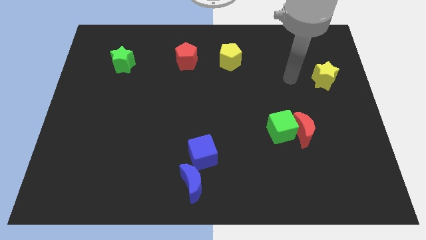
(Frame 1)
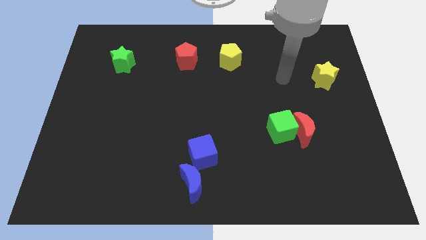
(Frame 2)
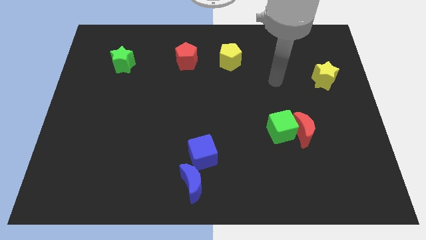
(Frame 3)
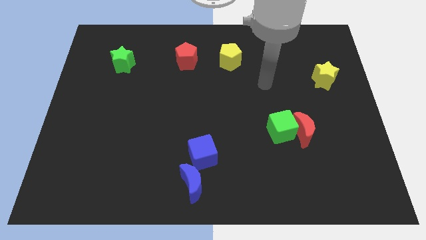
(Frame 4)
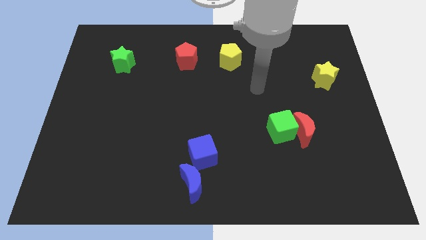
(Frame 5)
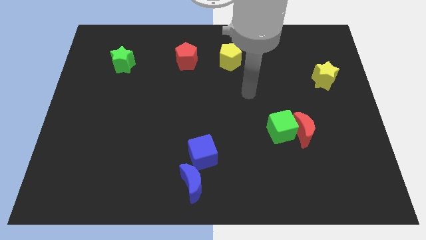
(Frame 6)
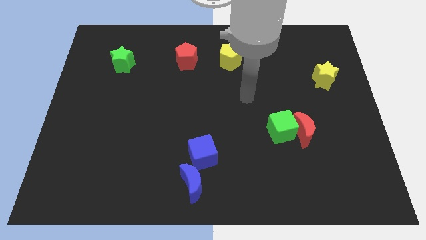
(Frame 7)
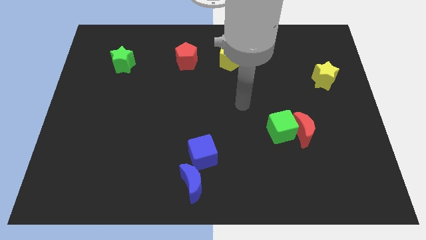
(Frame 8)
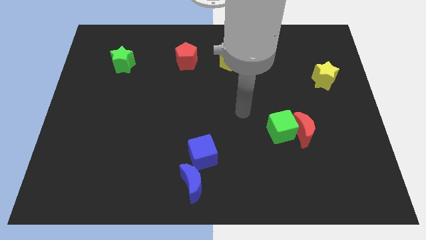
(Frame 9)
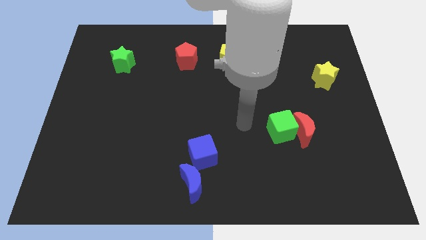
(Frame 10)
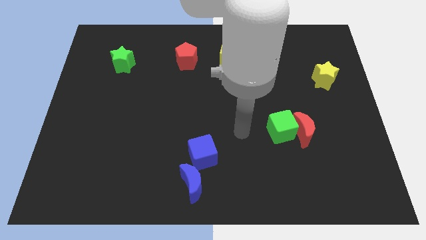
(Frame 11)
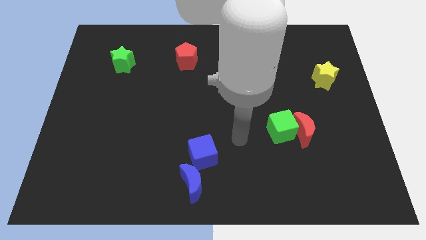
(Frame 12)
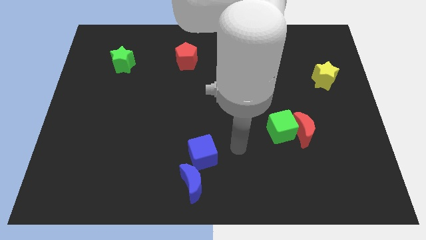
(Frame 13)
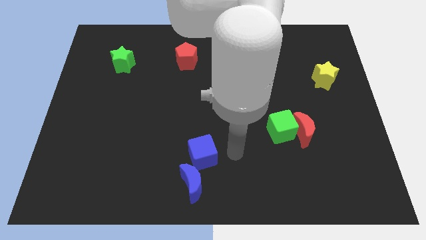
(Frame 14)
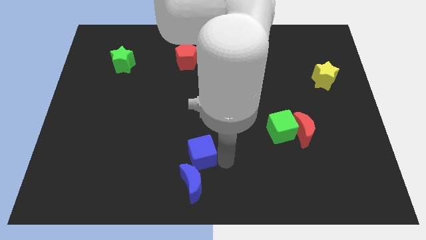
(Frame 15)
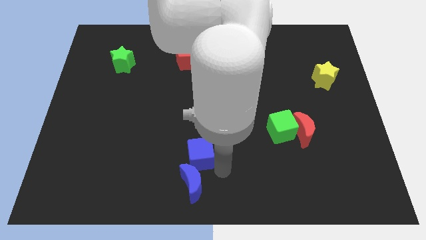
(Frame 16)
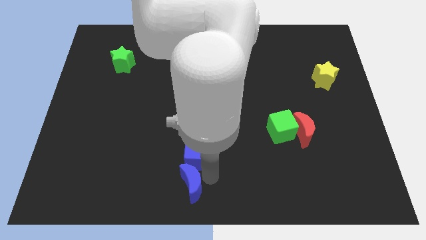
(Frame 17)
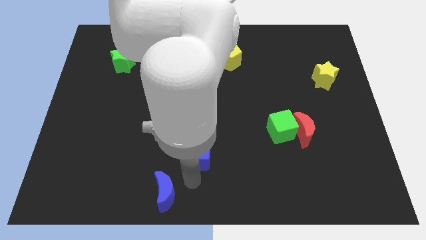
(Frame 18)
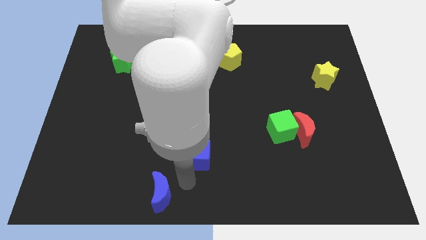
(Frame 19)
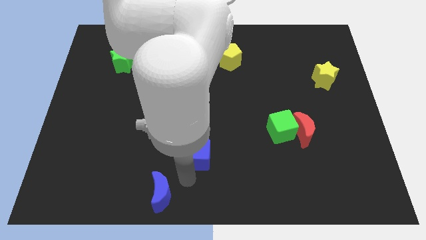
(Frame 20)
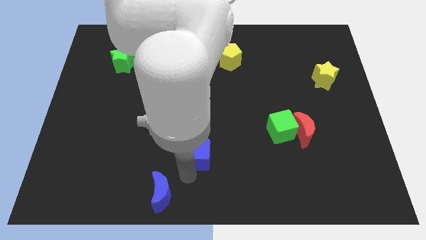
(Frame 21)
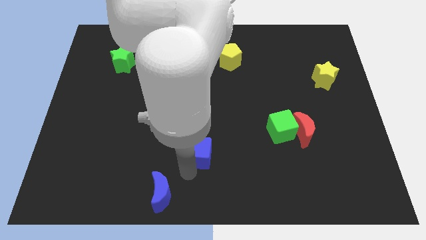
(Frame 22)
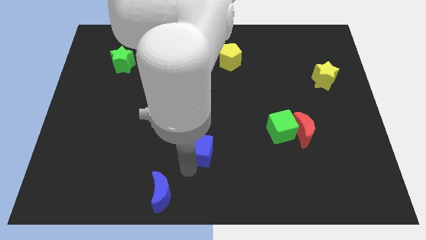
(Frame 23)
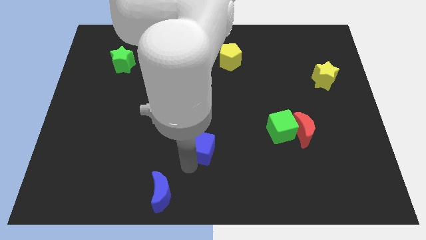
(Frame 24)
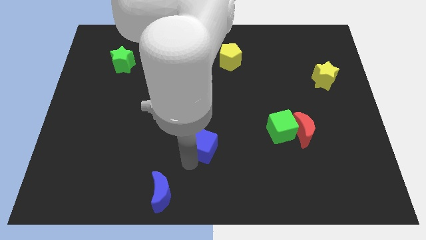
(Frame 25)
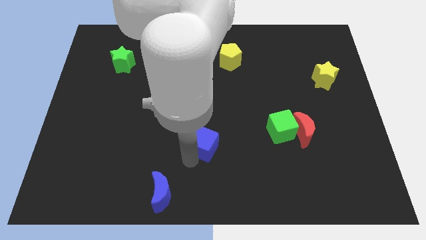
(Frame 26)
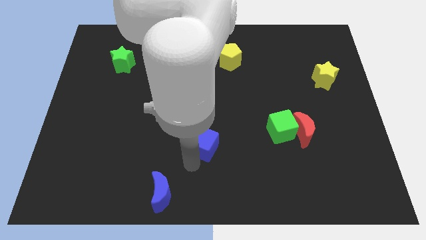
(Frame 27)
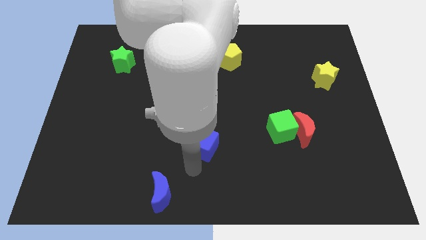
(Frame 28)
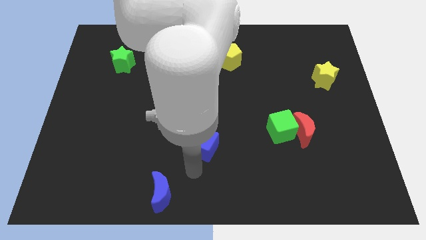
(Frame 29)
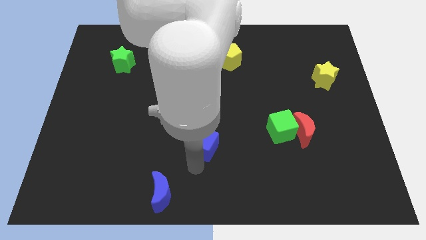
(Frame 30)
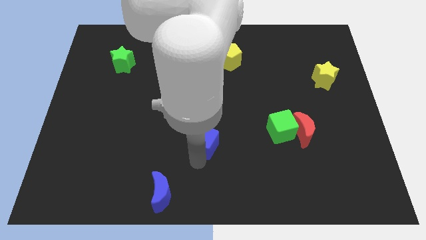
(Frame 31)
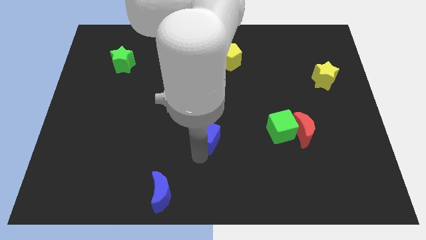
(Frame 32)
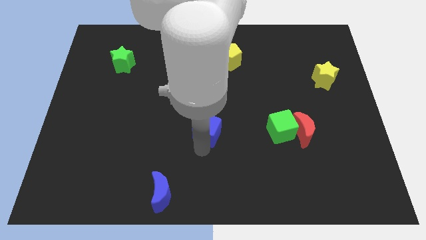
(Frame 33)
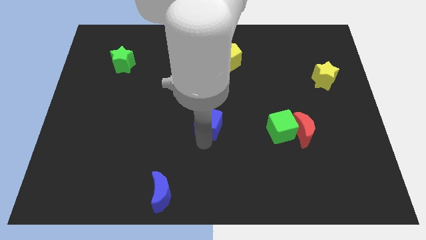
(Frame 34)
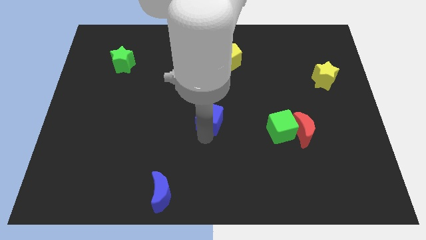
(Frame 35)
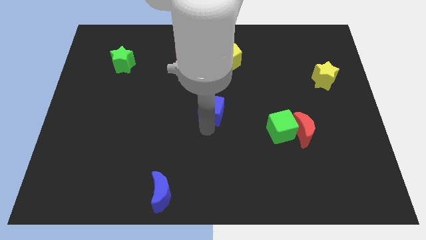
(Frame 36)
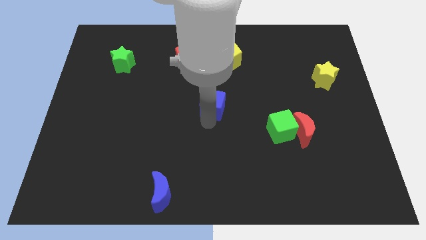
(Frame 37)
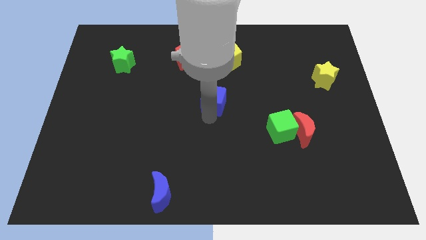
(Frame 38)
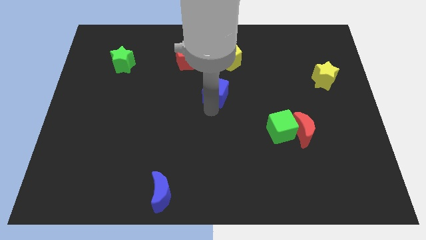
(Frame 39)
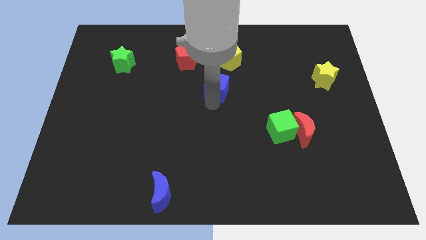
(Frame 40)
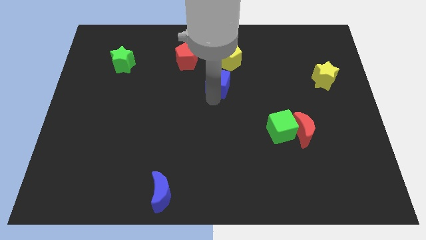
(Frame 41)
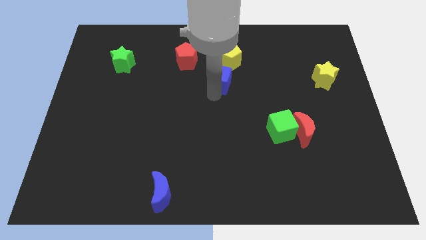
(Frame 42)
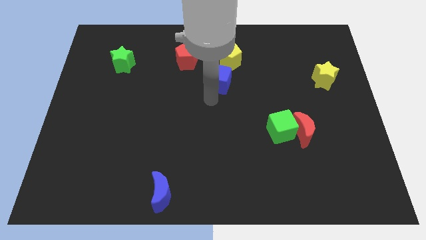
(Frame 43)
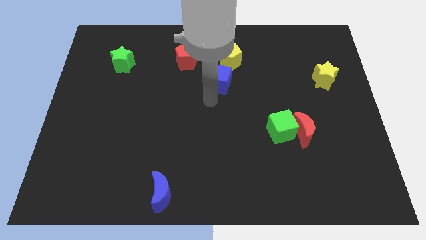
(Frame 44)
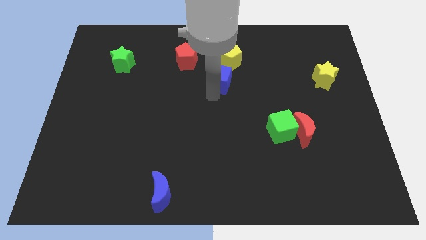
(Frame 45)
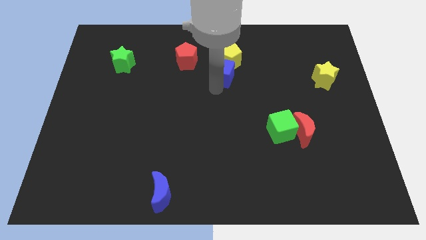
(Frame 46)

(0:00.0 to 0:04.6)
put the blue cube next to the yellow pentagon

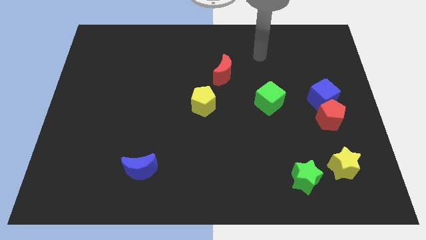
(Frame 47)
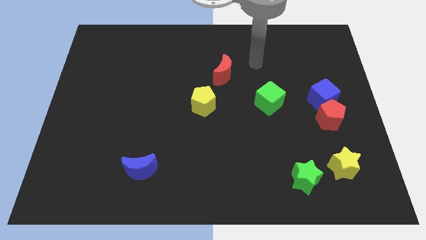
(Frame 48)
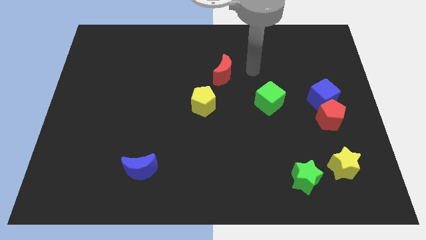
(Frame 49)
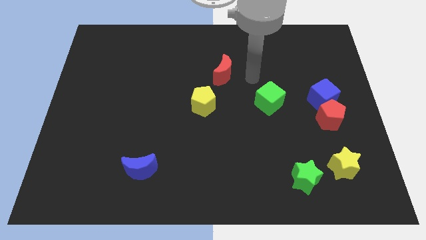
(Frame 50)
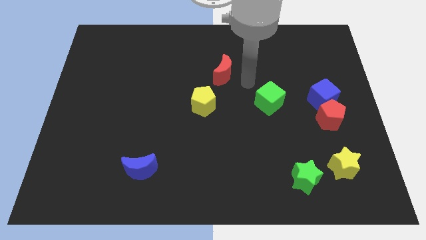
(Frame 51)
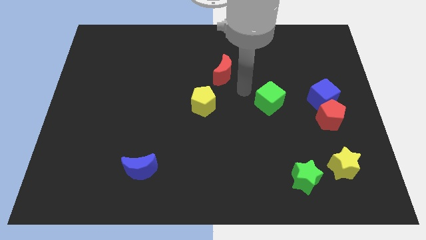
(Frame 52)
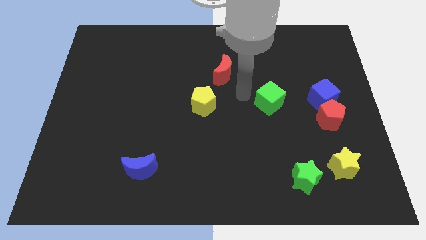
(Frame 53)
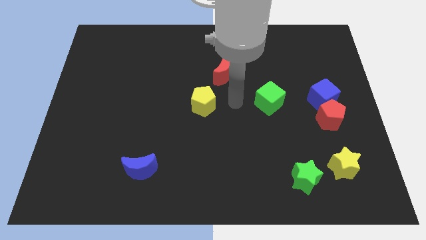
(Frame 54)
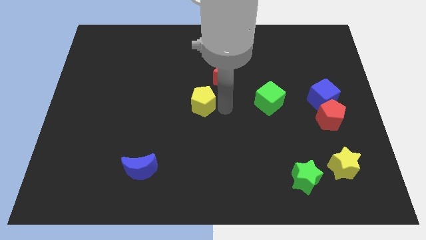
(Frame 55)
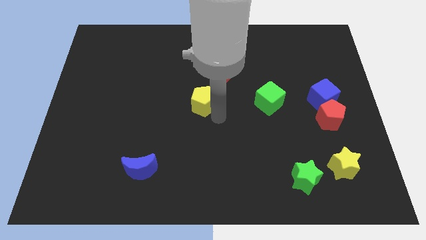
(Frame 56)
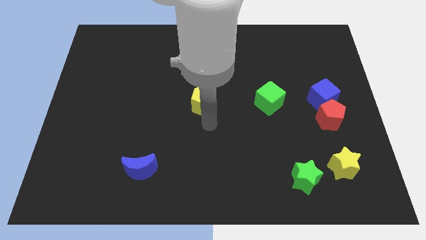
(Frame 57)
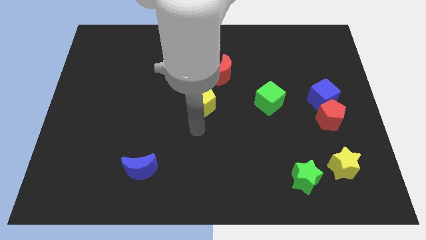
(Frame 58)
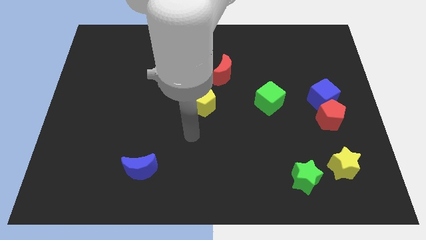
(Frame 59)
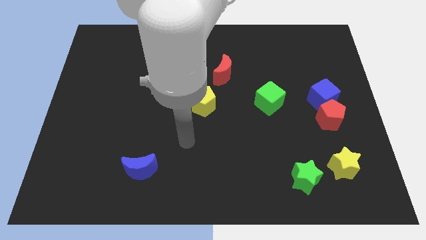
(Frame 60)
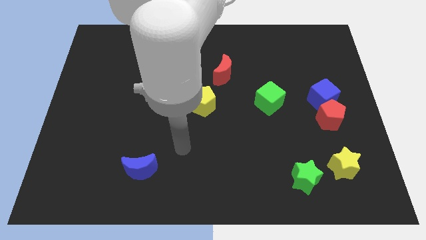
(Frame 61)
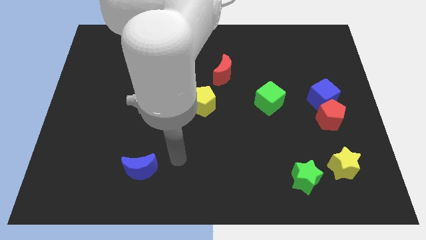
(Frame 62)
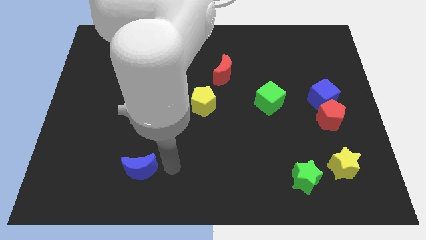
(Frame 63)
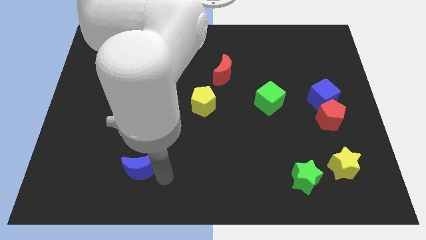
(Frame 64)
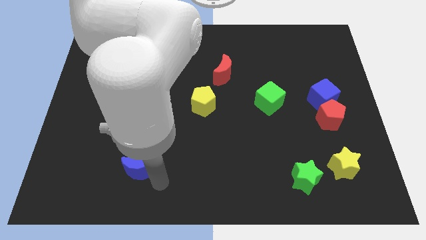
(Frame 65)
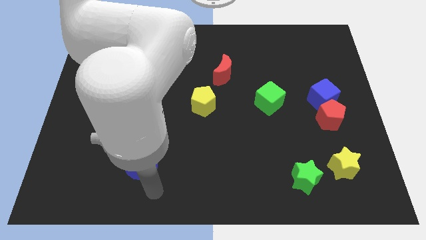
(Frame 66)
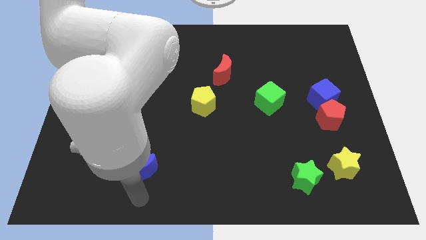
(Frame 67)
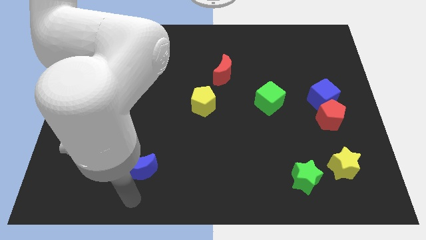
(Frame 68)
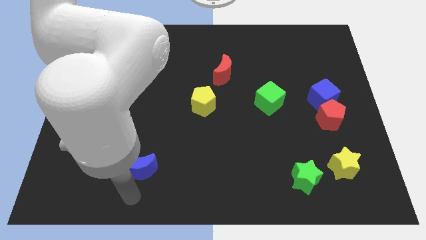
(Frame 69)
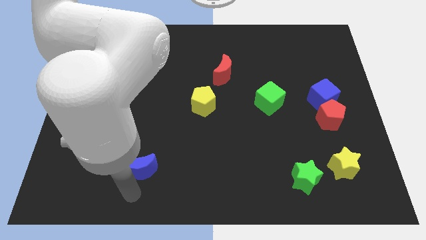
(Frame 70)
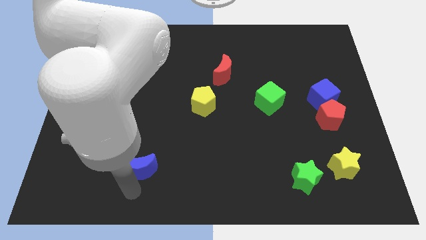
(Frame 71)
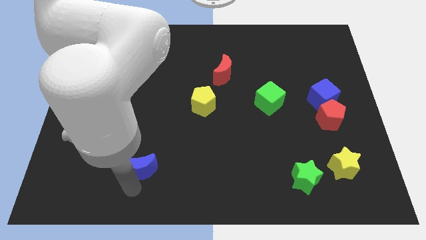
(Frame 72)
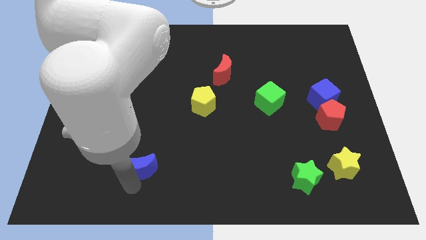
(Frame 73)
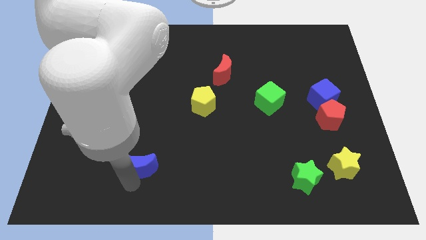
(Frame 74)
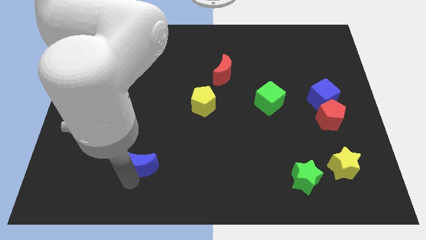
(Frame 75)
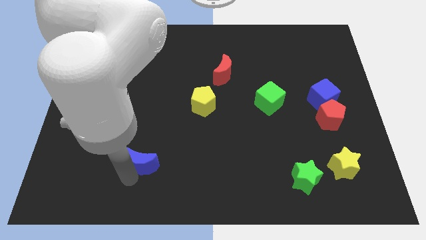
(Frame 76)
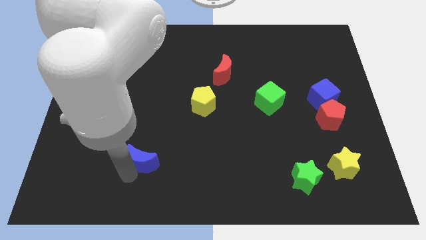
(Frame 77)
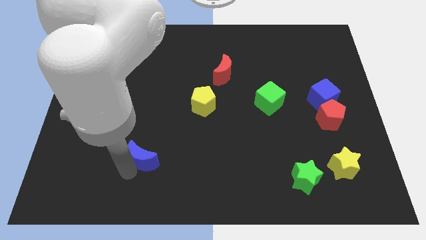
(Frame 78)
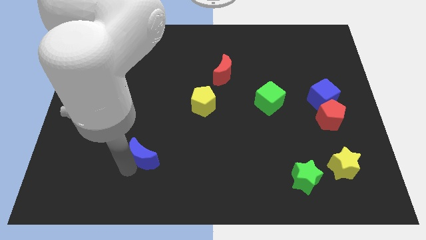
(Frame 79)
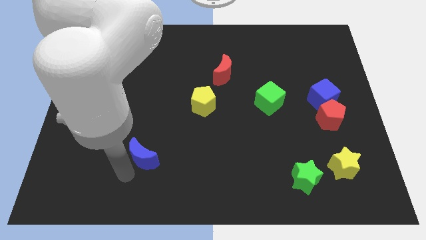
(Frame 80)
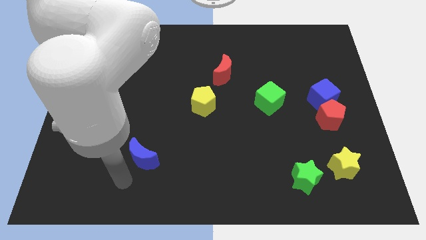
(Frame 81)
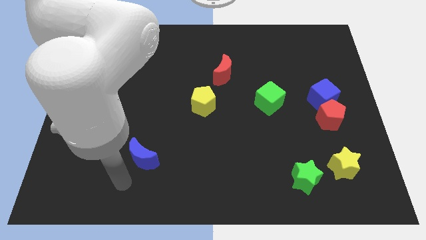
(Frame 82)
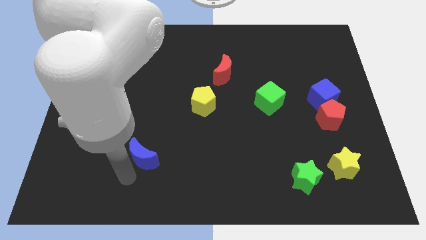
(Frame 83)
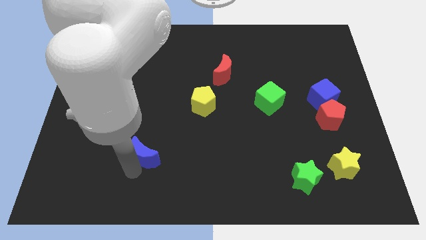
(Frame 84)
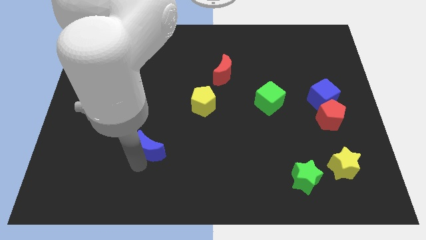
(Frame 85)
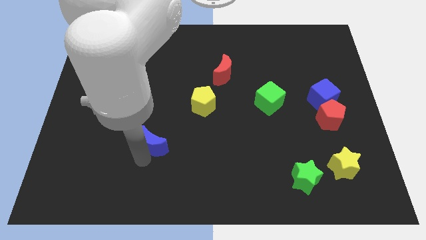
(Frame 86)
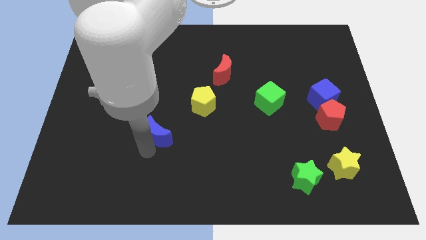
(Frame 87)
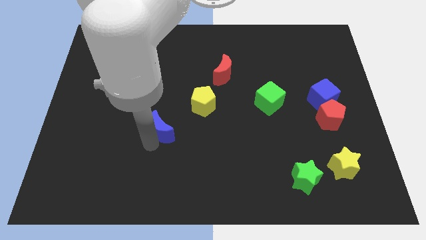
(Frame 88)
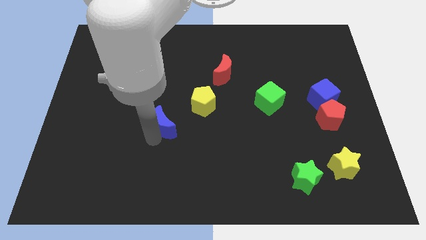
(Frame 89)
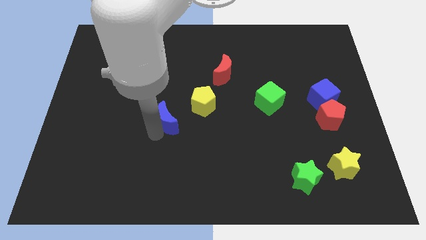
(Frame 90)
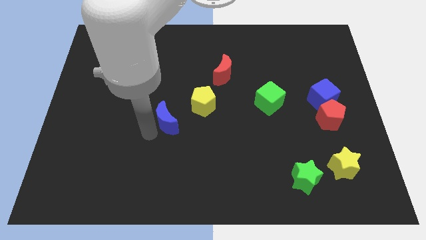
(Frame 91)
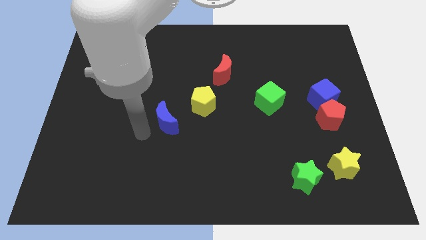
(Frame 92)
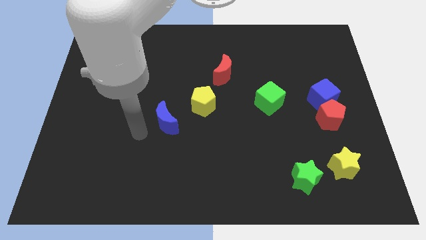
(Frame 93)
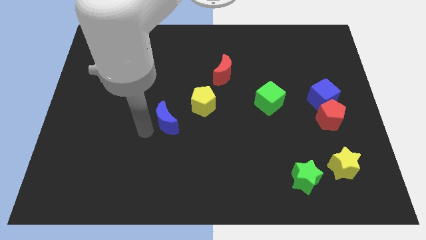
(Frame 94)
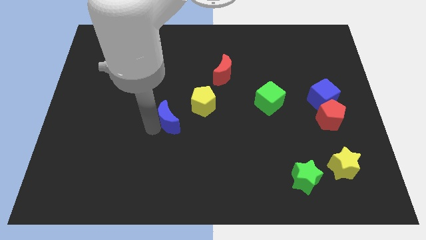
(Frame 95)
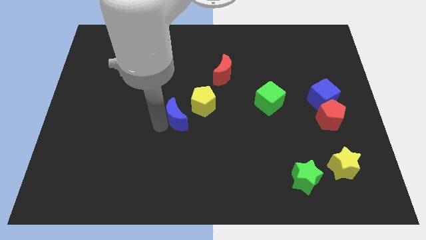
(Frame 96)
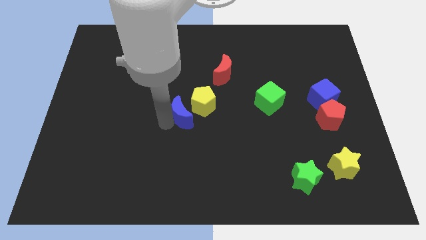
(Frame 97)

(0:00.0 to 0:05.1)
put the blue moon next to the yellow pentagon
